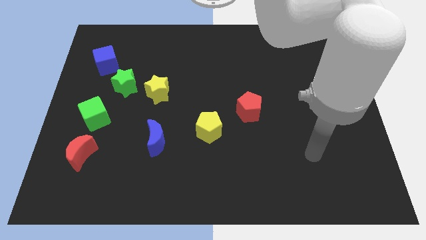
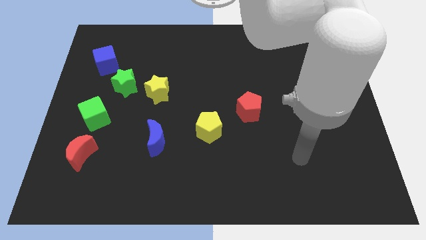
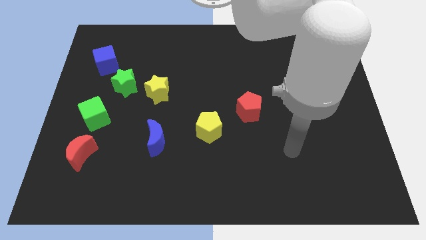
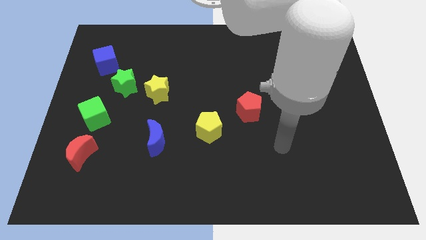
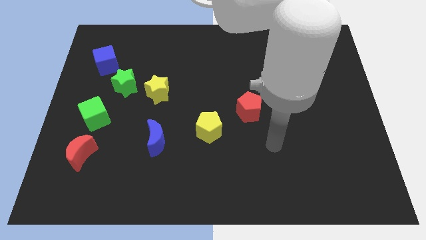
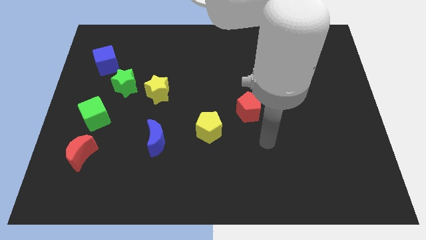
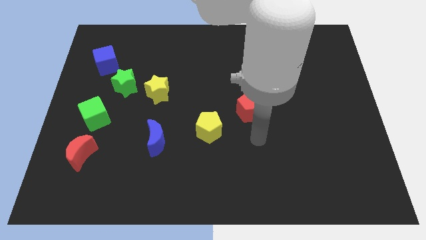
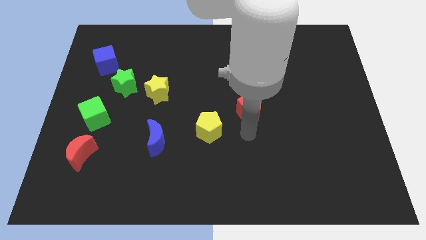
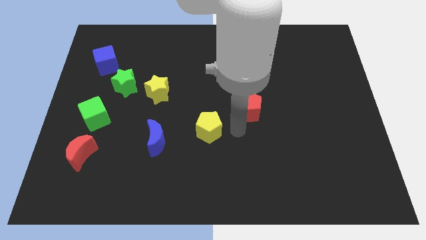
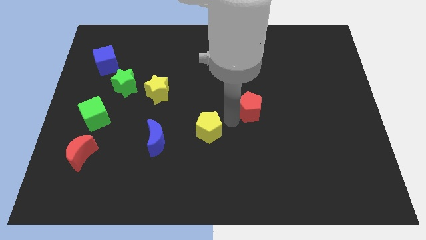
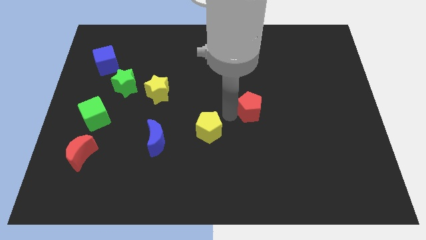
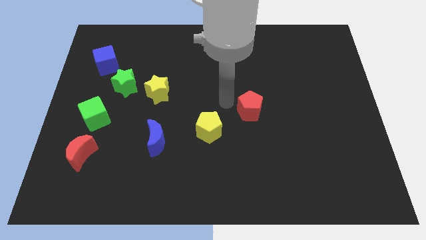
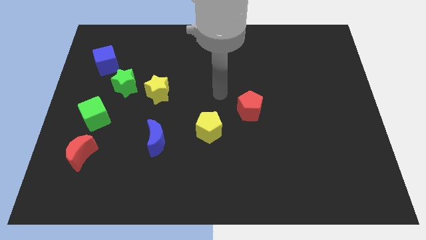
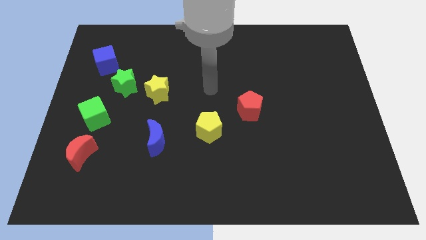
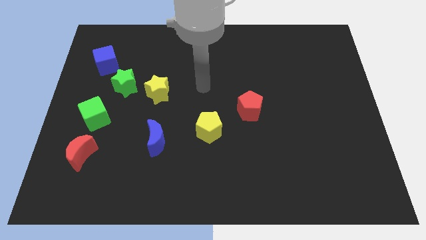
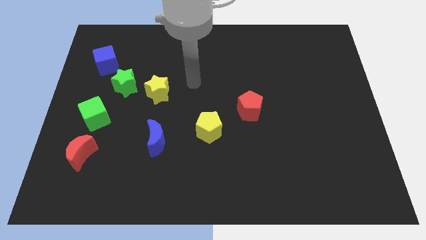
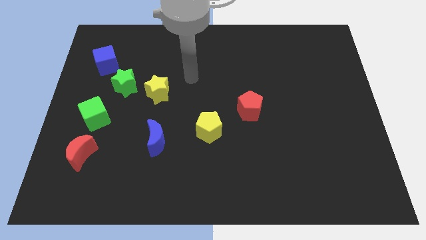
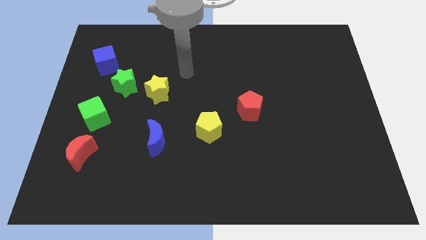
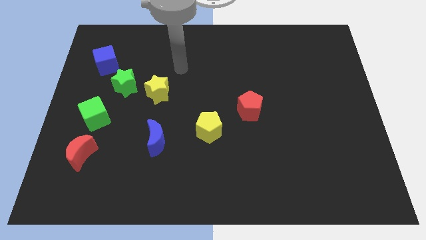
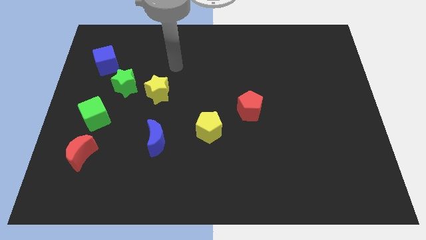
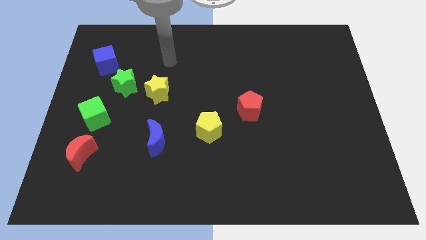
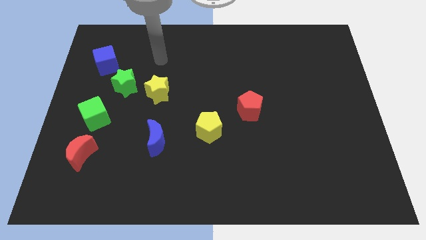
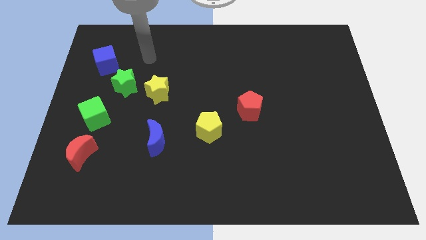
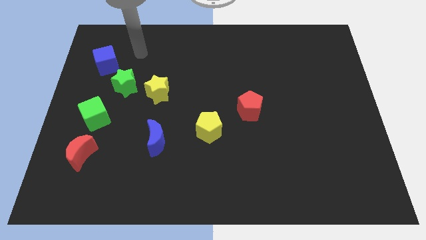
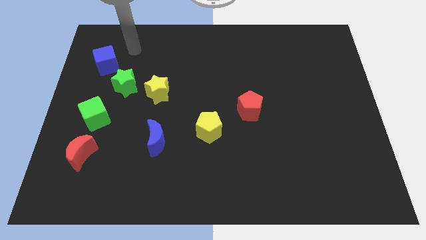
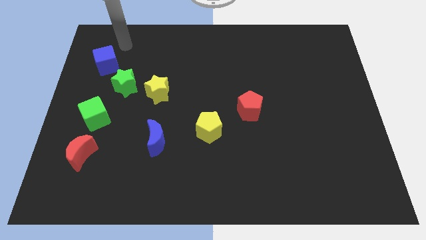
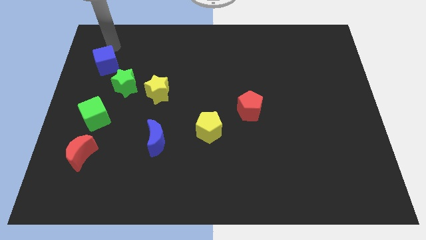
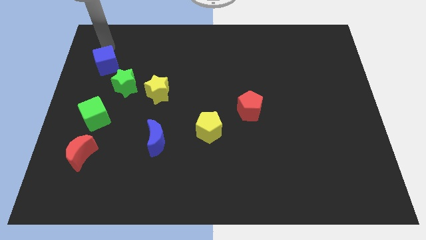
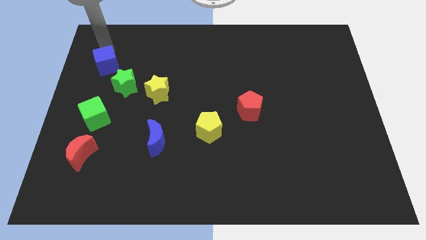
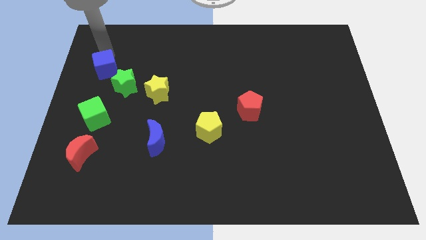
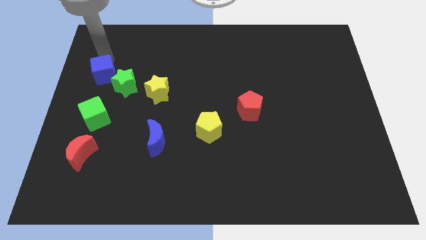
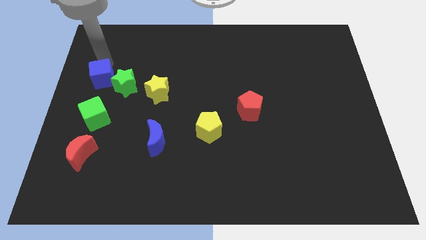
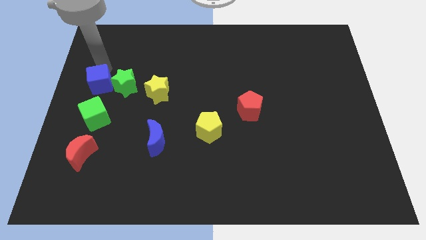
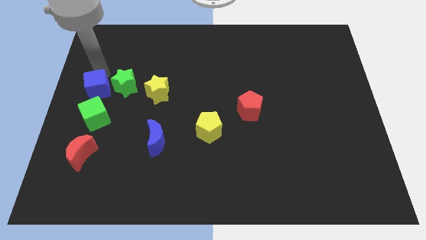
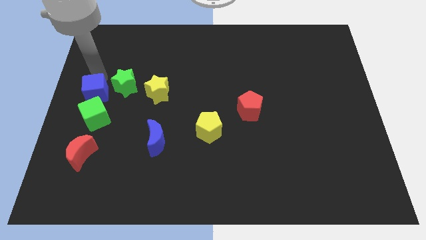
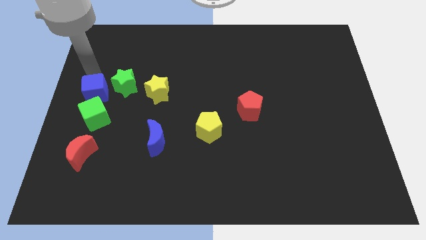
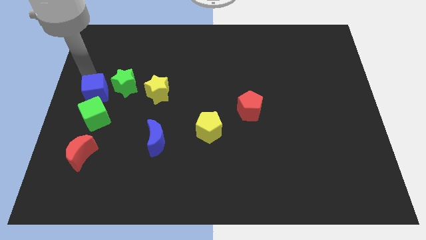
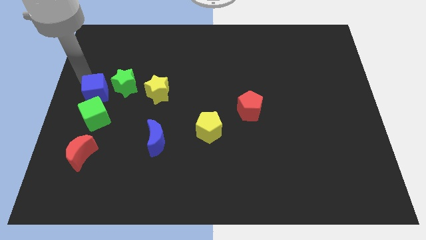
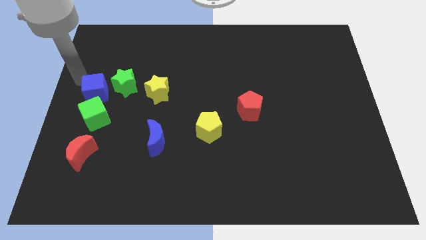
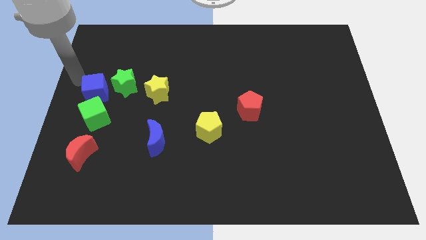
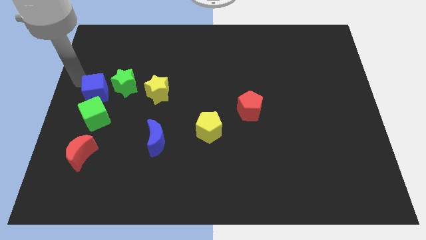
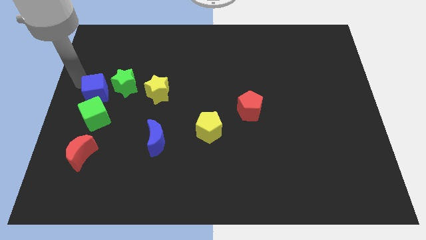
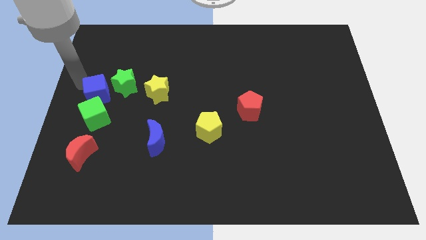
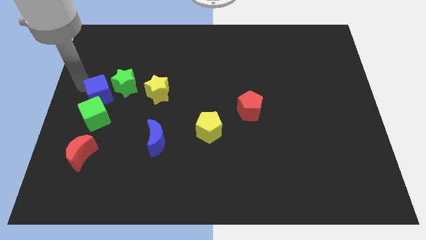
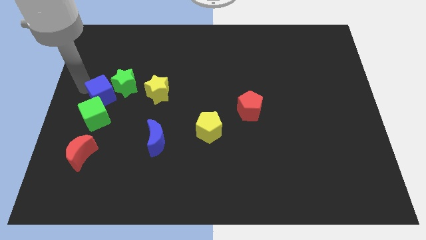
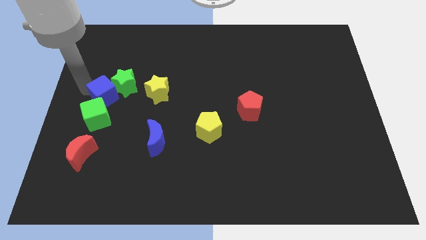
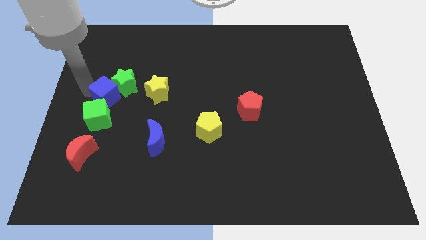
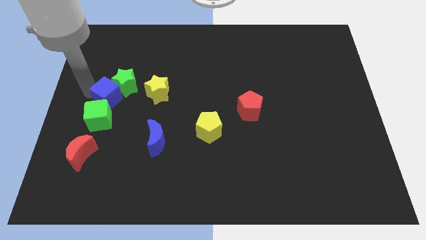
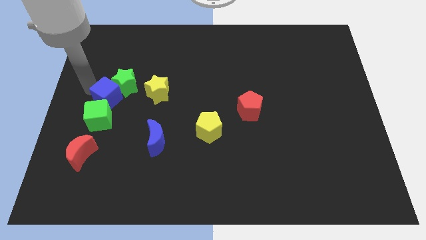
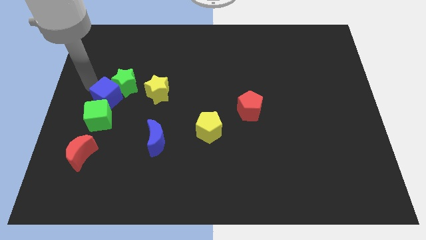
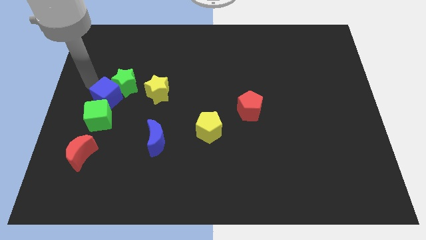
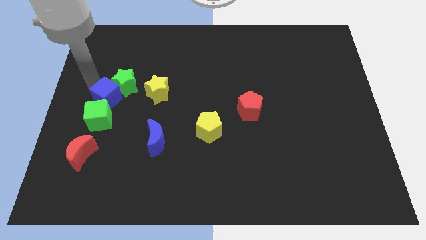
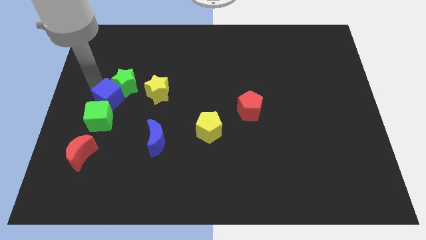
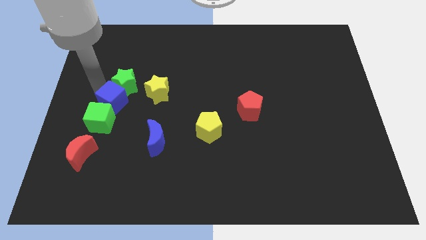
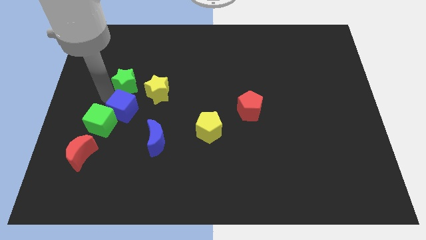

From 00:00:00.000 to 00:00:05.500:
push the blue cube to the right of the green cube

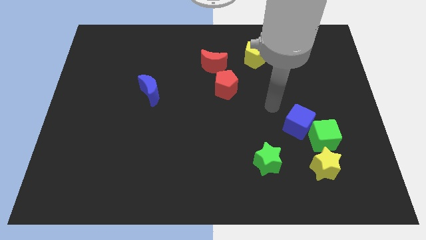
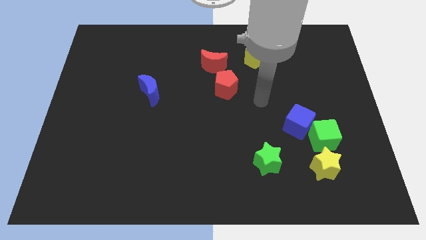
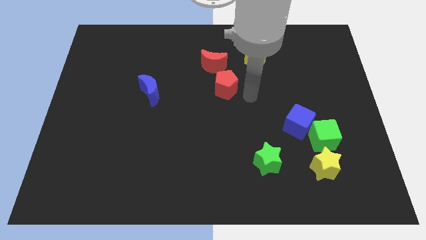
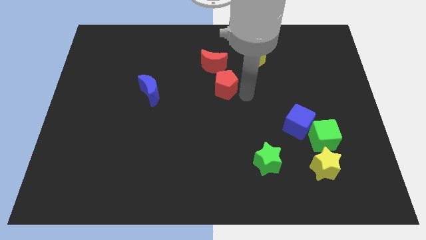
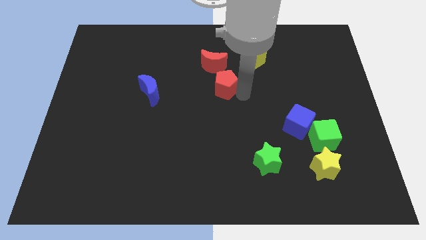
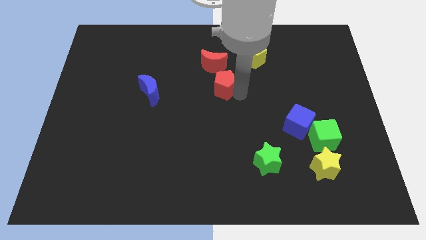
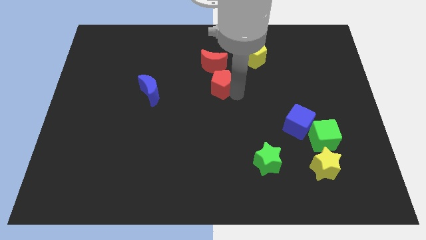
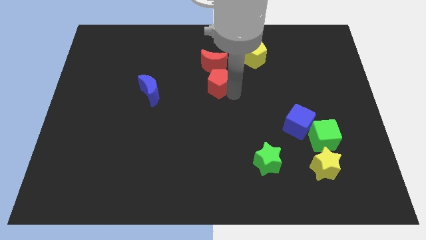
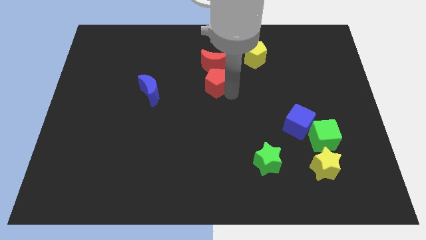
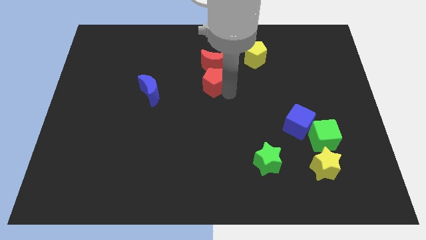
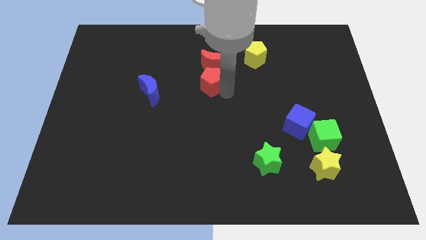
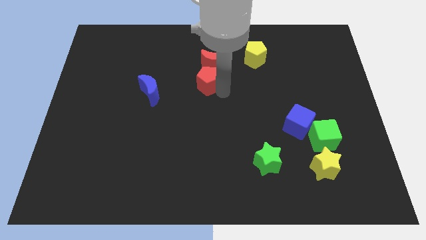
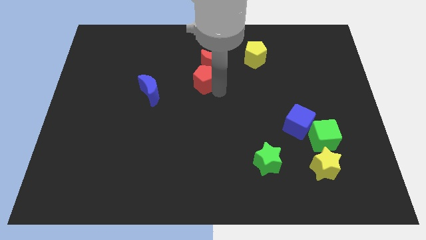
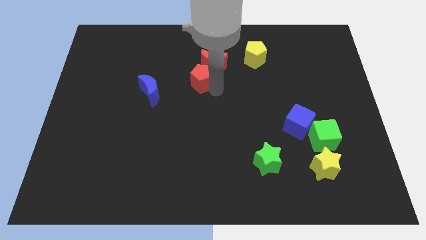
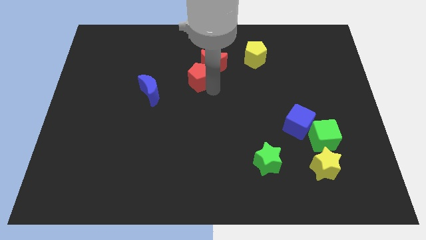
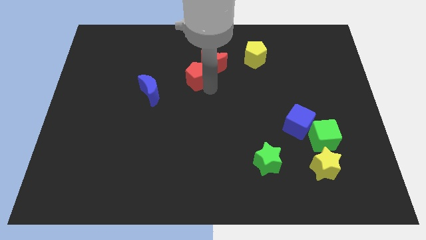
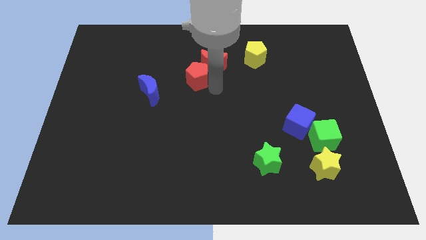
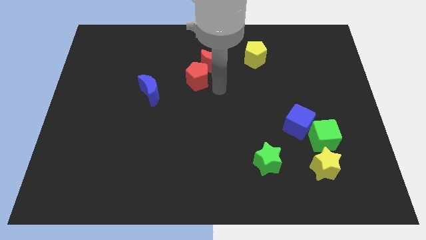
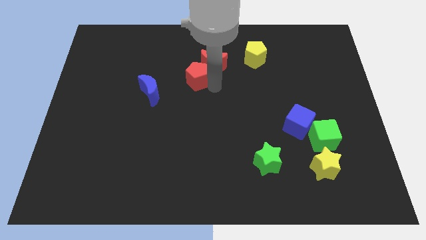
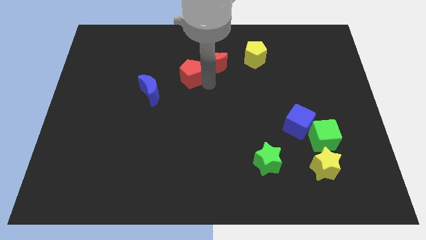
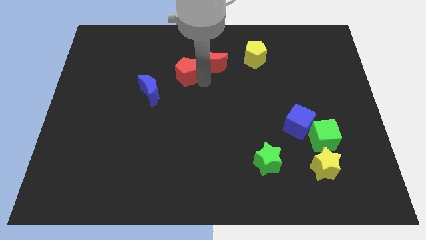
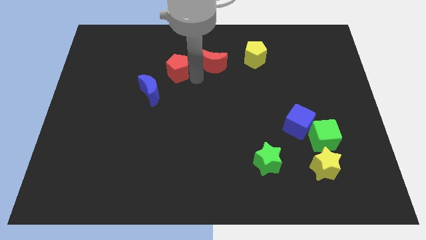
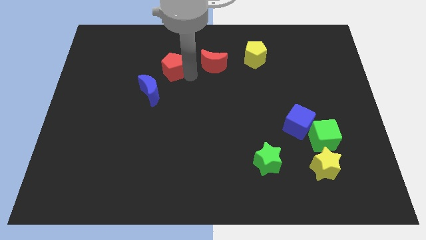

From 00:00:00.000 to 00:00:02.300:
put the red pentagon to the top side of the blue moon

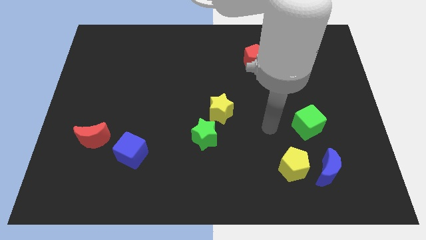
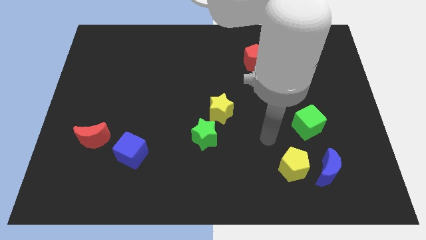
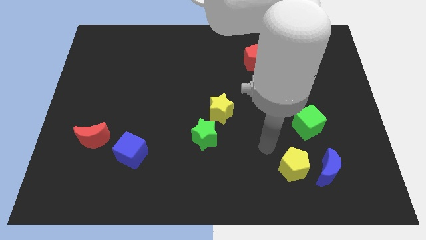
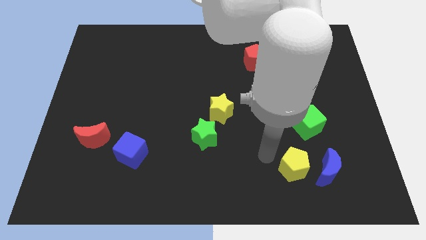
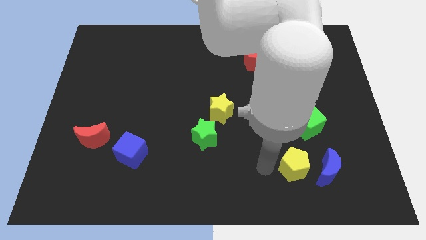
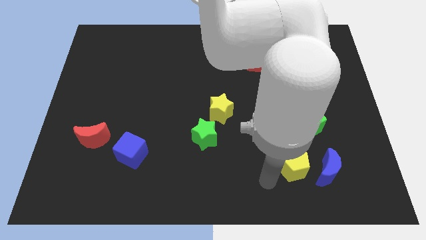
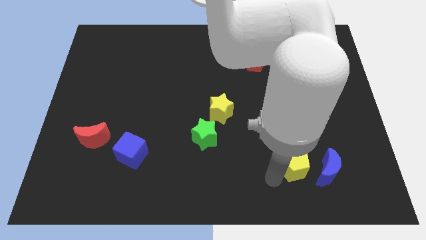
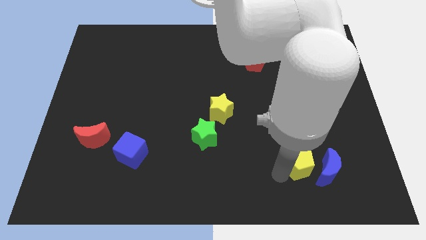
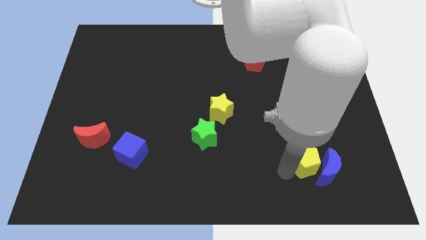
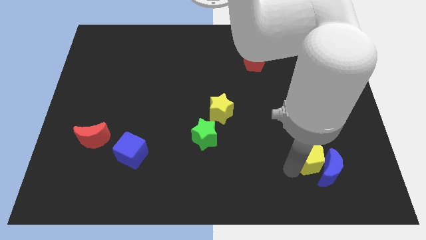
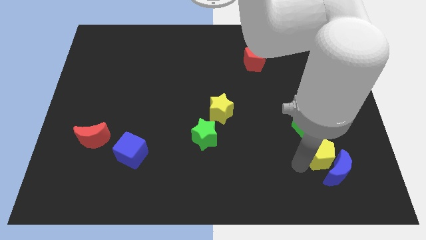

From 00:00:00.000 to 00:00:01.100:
slide the yellow pentagon diagonally down and to the right of the green cube
